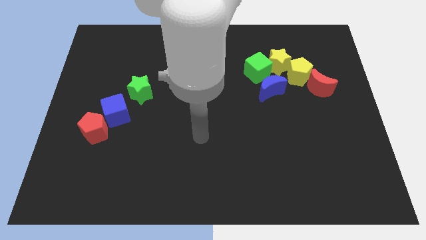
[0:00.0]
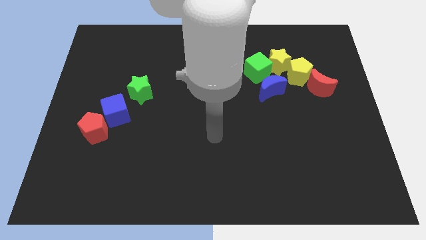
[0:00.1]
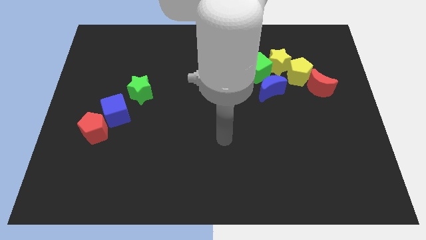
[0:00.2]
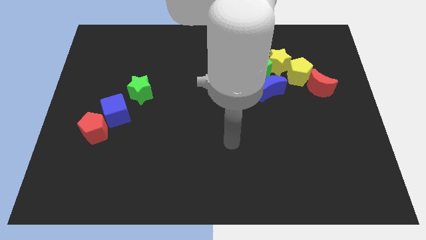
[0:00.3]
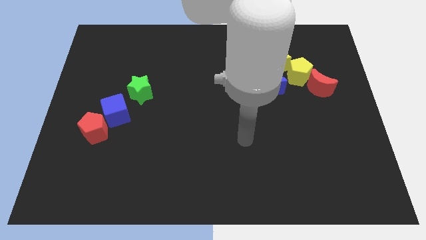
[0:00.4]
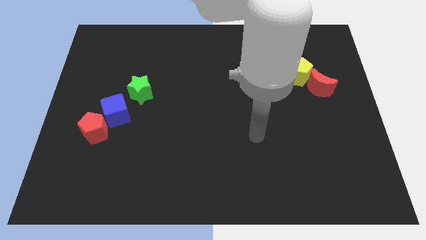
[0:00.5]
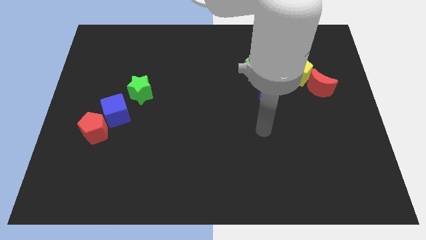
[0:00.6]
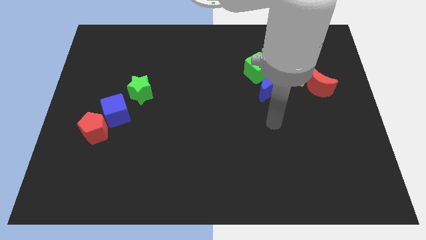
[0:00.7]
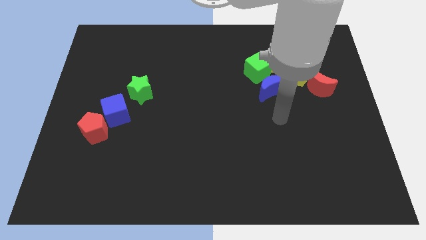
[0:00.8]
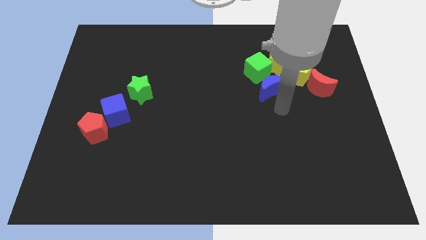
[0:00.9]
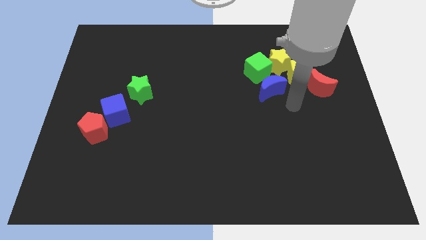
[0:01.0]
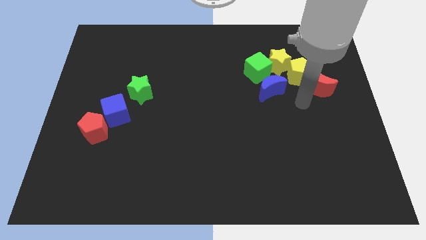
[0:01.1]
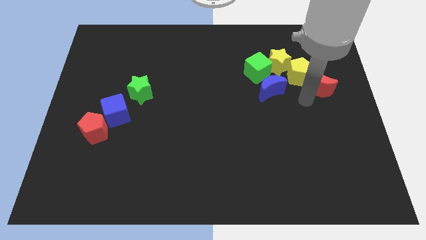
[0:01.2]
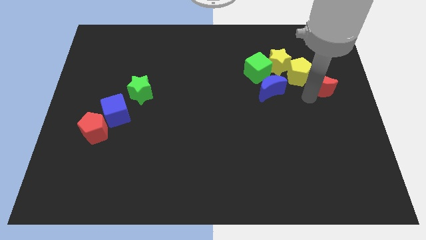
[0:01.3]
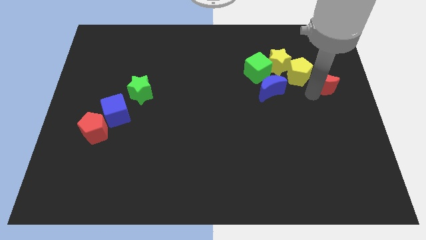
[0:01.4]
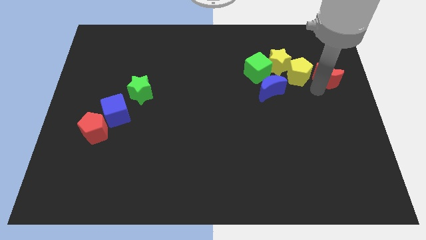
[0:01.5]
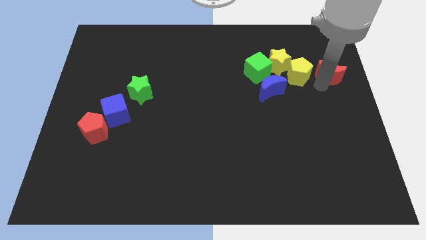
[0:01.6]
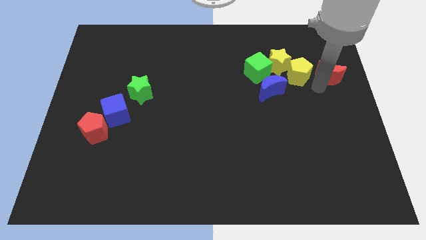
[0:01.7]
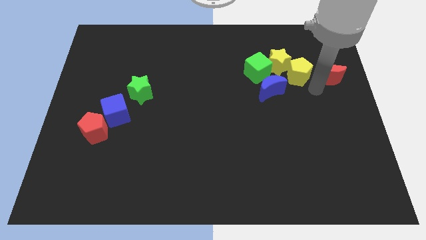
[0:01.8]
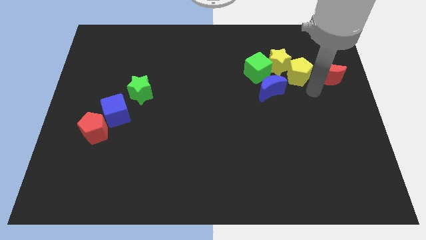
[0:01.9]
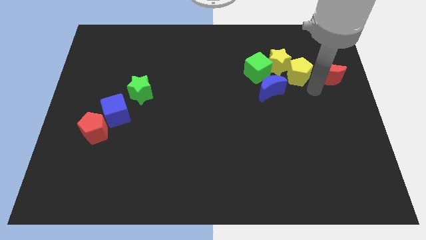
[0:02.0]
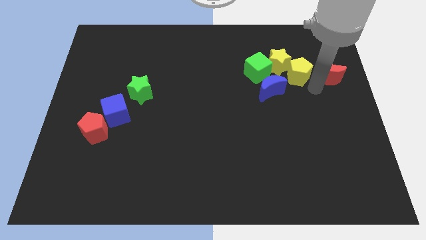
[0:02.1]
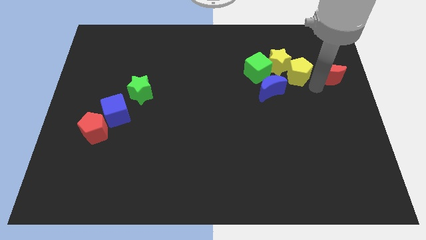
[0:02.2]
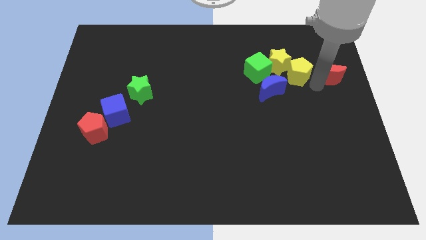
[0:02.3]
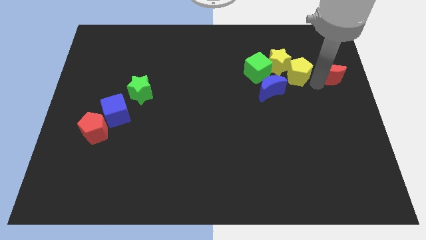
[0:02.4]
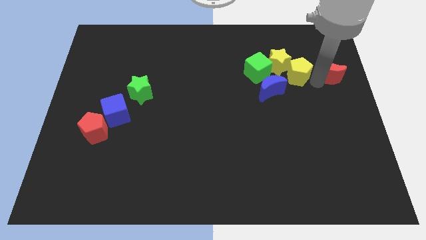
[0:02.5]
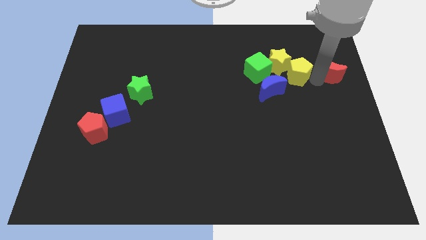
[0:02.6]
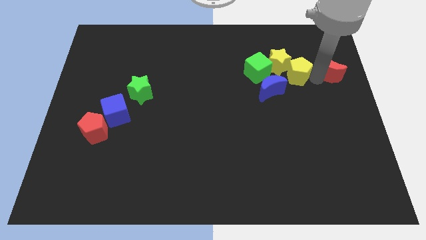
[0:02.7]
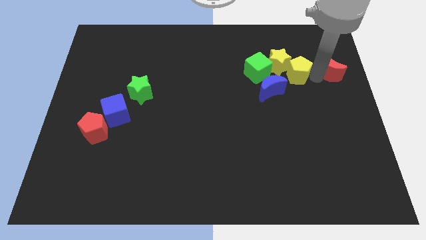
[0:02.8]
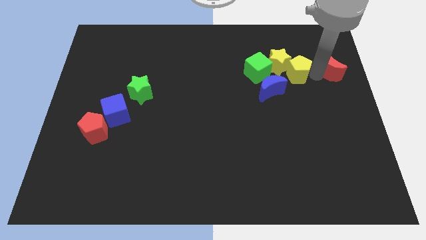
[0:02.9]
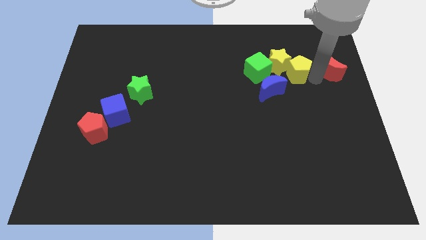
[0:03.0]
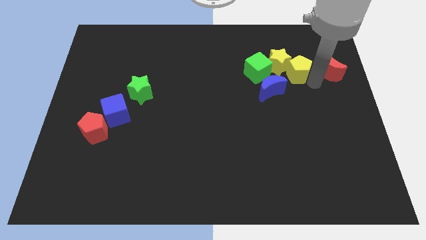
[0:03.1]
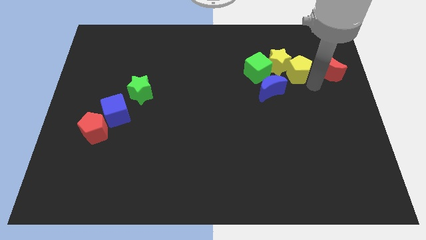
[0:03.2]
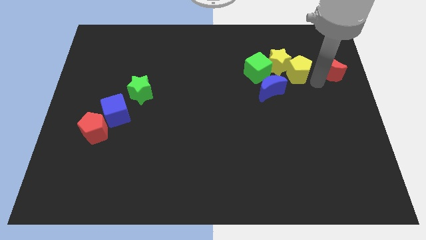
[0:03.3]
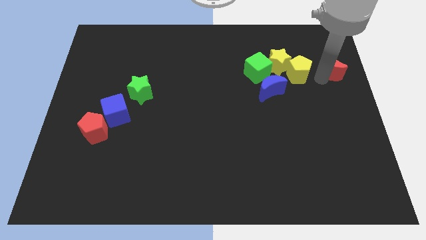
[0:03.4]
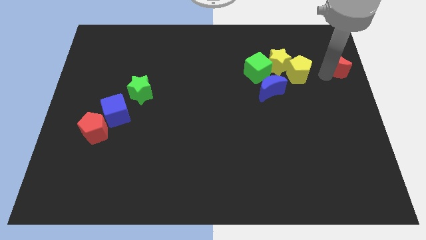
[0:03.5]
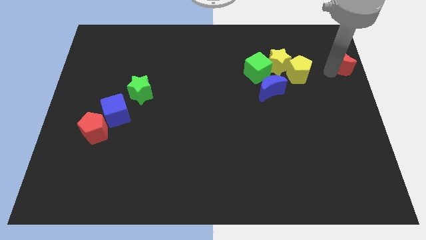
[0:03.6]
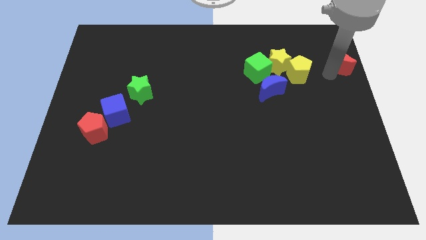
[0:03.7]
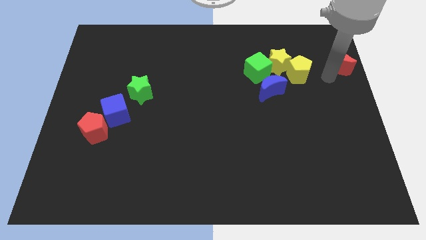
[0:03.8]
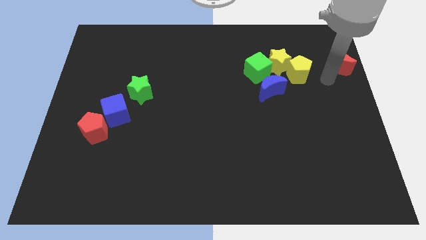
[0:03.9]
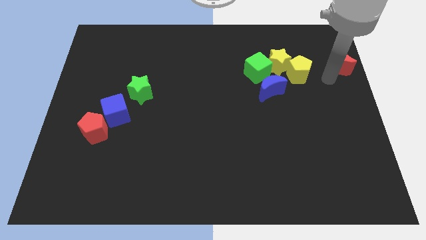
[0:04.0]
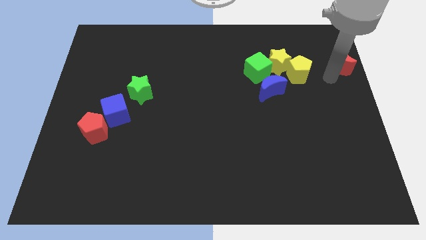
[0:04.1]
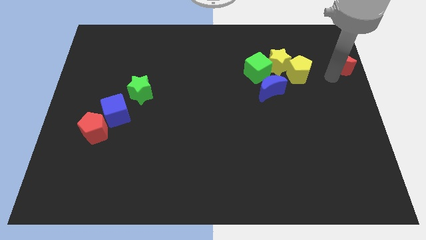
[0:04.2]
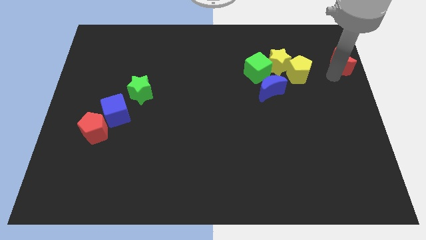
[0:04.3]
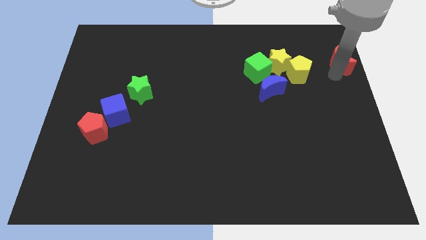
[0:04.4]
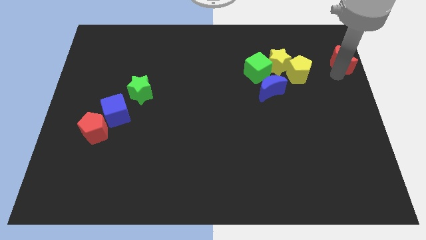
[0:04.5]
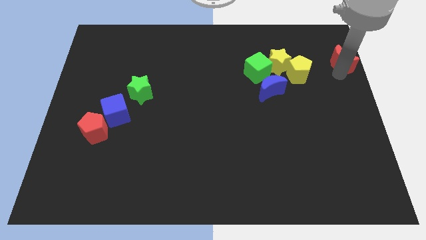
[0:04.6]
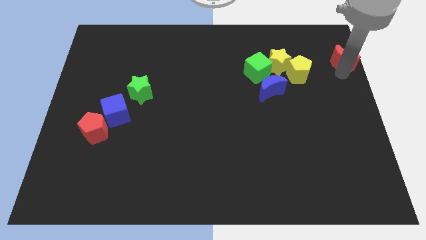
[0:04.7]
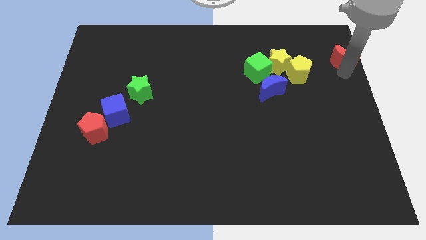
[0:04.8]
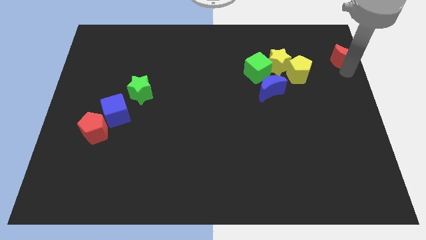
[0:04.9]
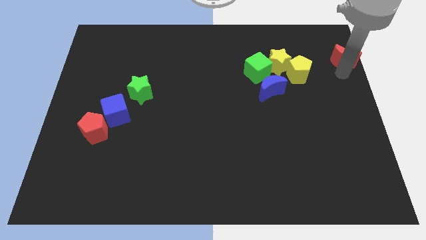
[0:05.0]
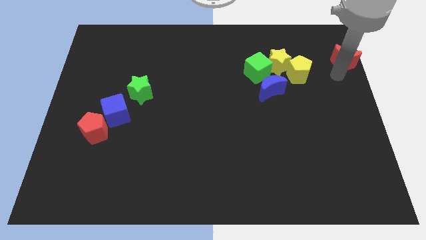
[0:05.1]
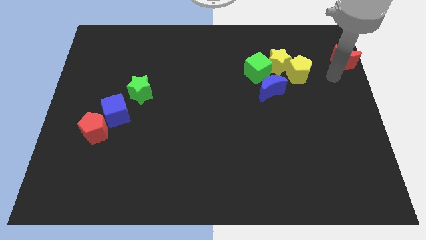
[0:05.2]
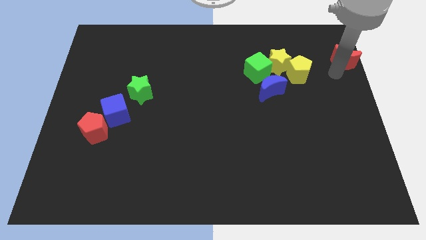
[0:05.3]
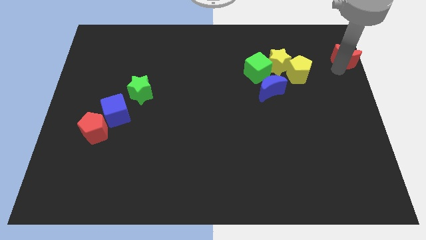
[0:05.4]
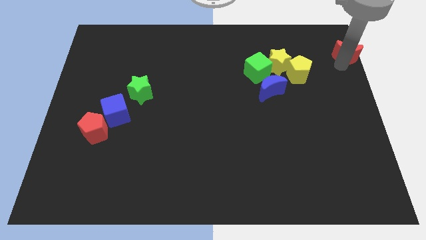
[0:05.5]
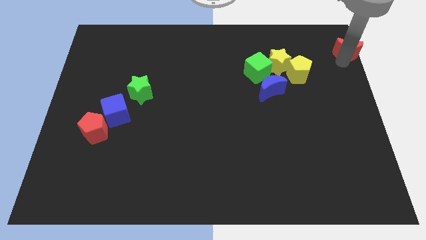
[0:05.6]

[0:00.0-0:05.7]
slide the red moon to the upper right corner
